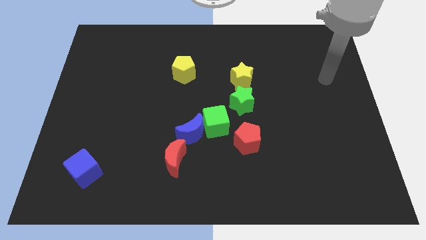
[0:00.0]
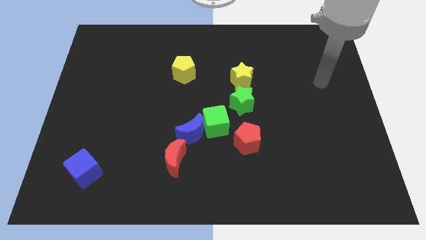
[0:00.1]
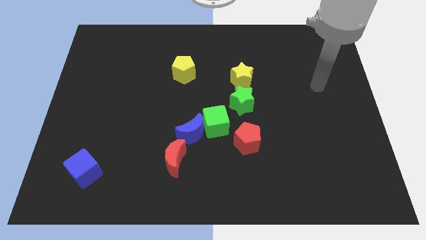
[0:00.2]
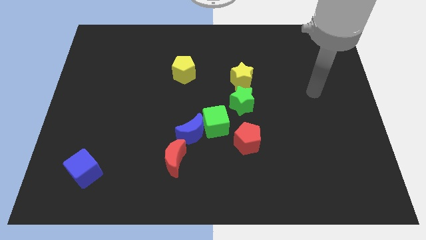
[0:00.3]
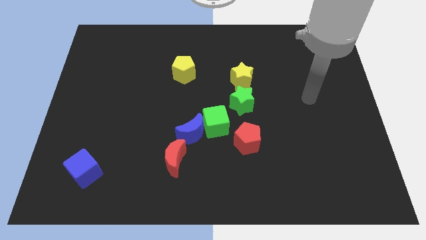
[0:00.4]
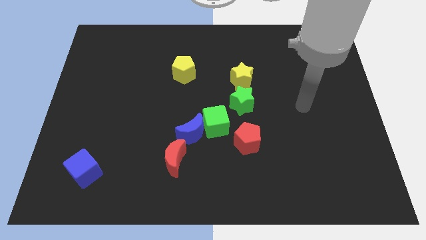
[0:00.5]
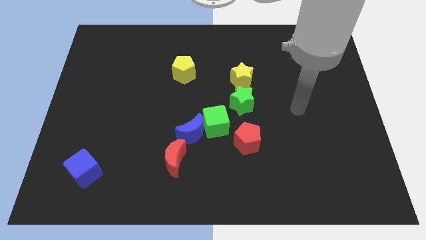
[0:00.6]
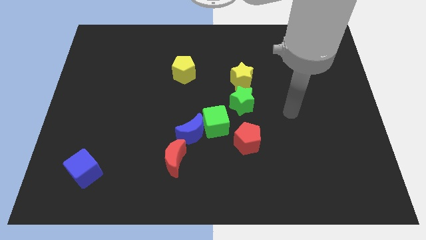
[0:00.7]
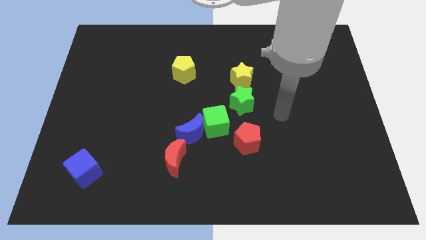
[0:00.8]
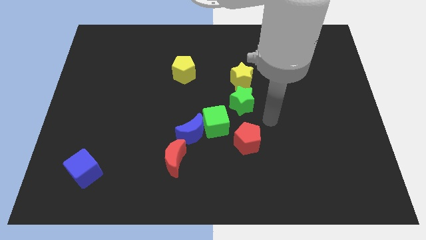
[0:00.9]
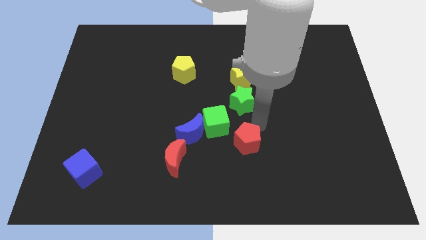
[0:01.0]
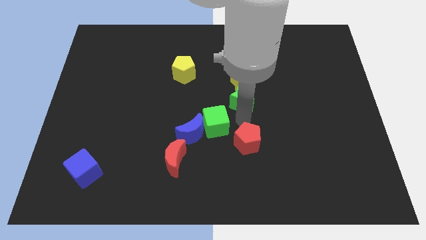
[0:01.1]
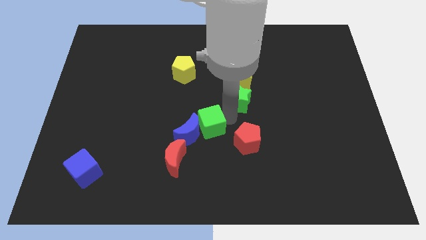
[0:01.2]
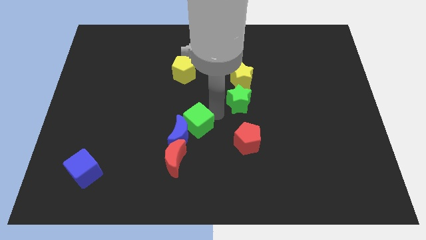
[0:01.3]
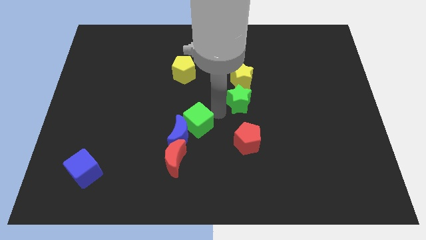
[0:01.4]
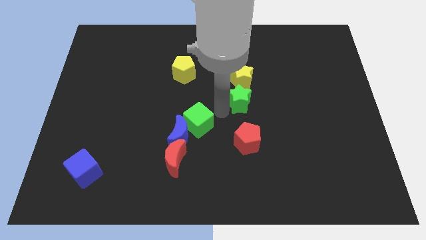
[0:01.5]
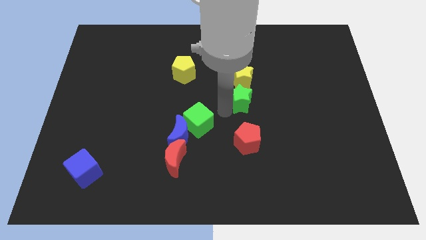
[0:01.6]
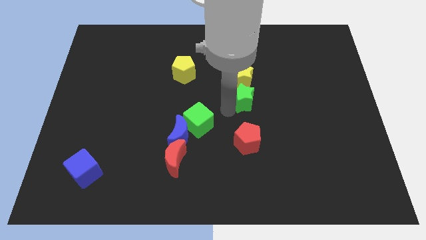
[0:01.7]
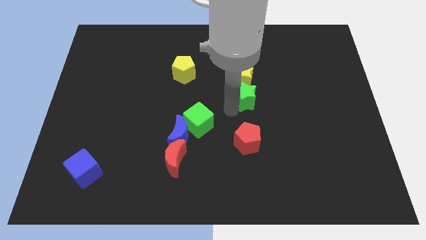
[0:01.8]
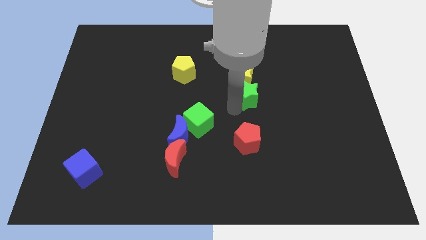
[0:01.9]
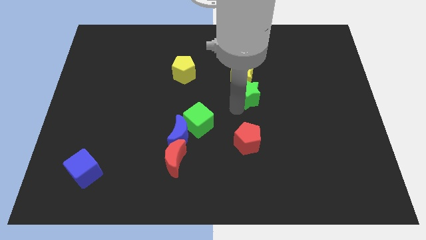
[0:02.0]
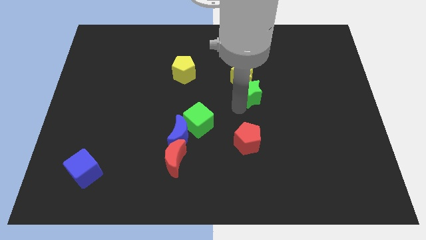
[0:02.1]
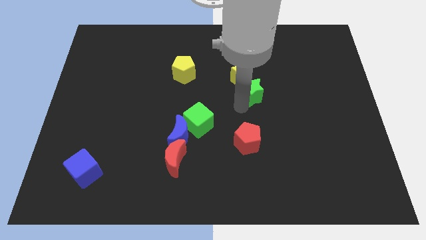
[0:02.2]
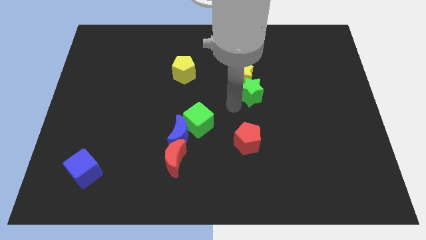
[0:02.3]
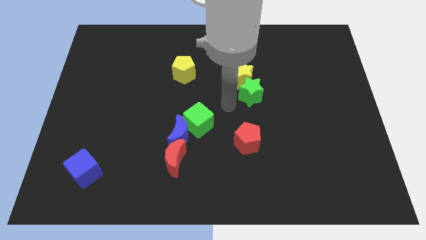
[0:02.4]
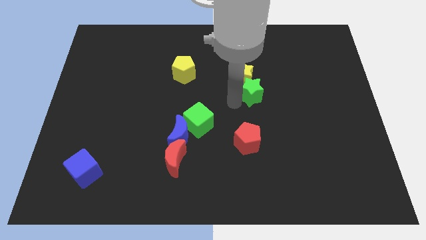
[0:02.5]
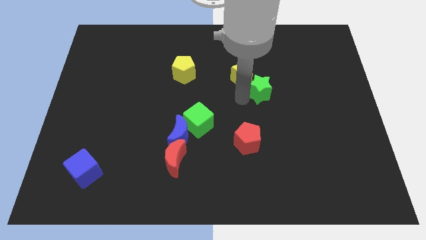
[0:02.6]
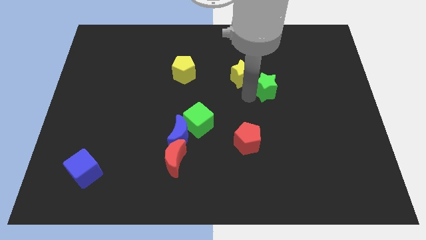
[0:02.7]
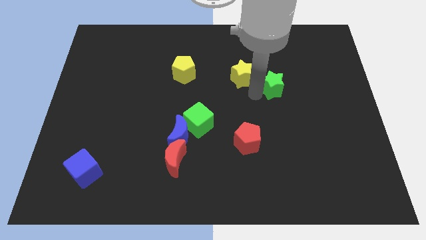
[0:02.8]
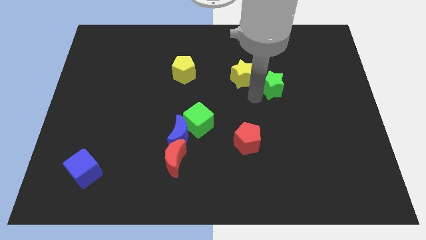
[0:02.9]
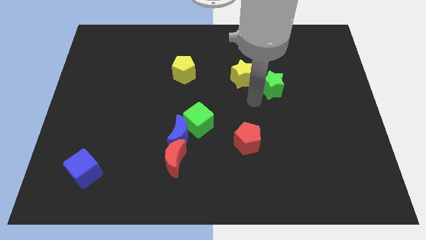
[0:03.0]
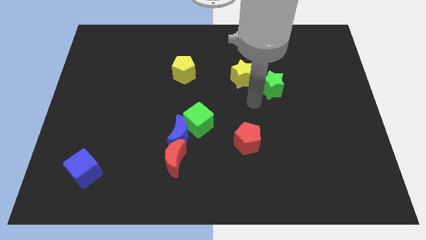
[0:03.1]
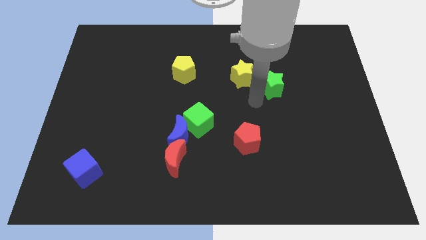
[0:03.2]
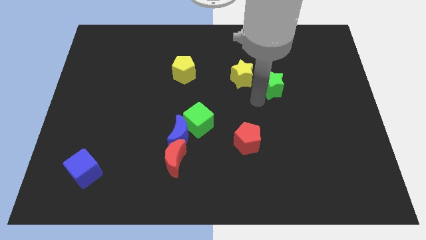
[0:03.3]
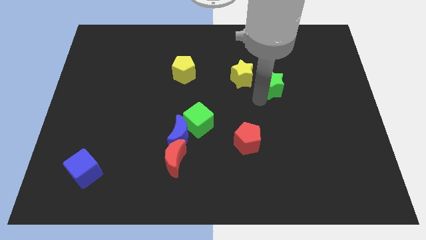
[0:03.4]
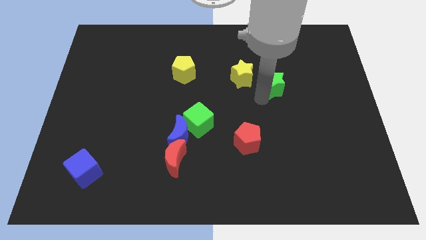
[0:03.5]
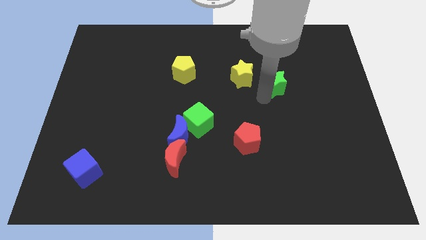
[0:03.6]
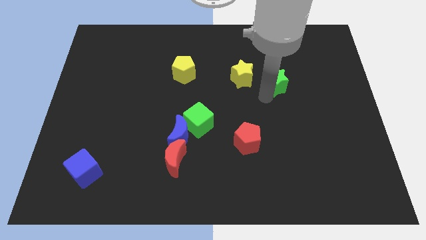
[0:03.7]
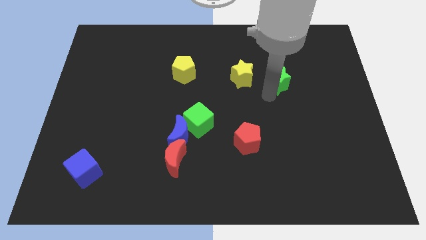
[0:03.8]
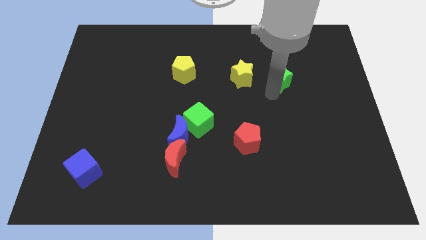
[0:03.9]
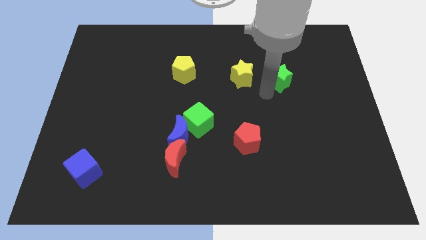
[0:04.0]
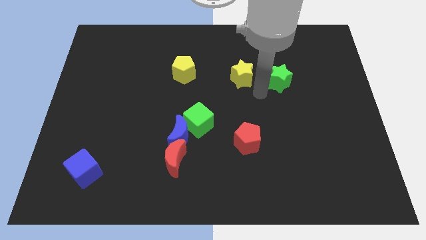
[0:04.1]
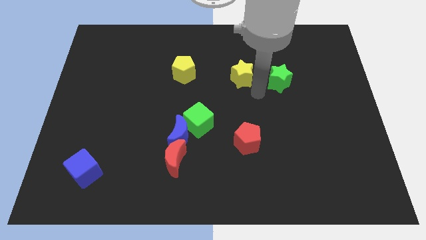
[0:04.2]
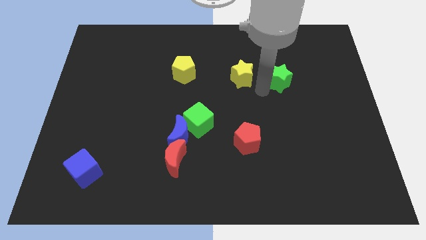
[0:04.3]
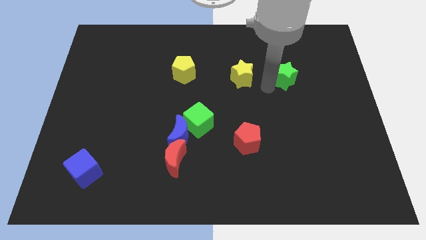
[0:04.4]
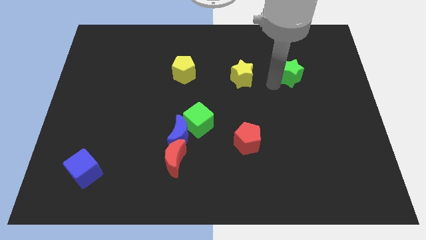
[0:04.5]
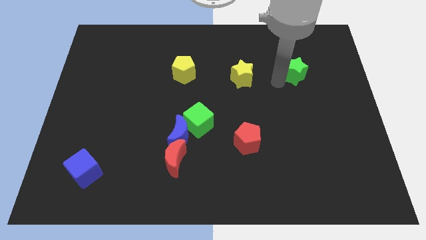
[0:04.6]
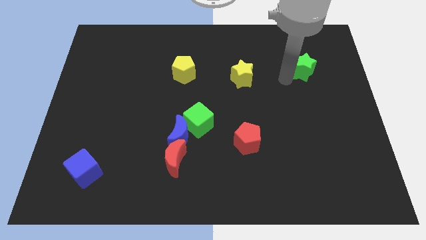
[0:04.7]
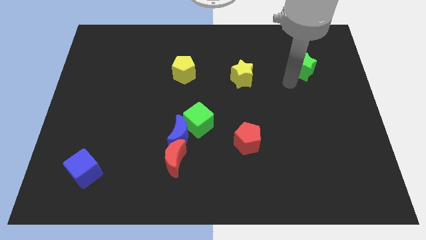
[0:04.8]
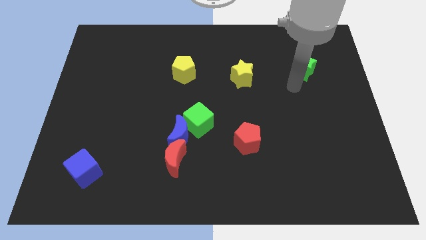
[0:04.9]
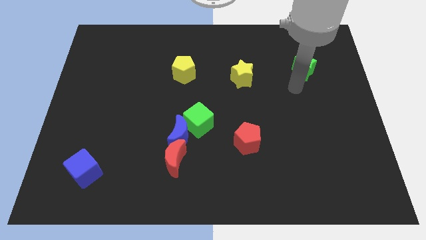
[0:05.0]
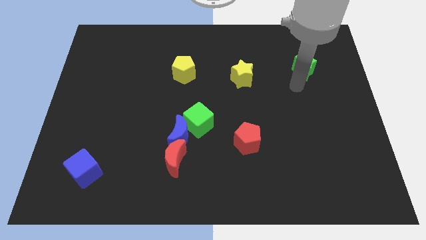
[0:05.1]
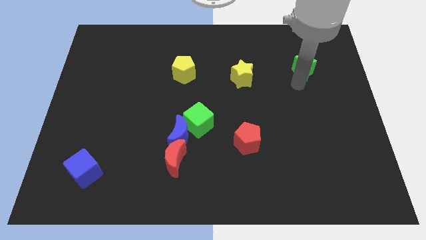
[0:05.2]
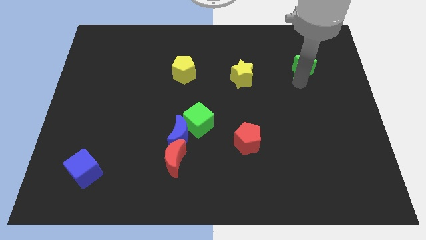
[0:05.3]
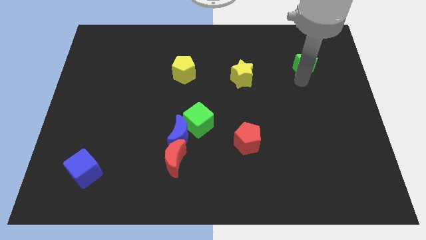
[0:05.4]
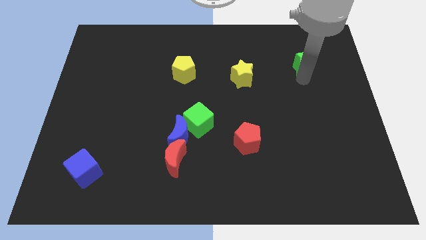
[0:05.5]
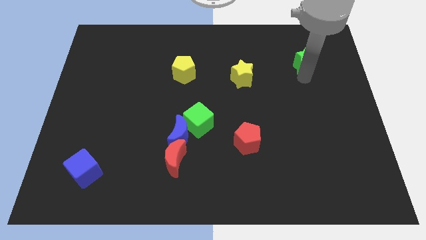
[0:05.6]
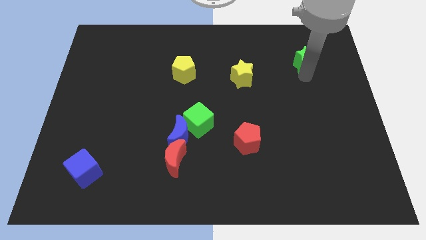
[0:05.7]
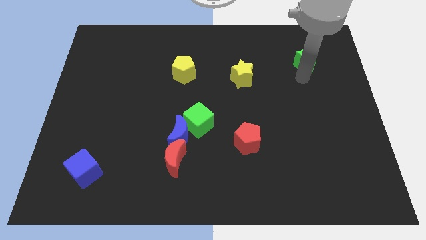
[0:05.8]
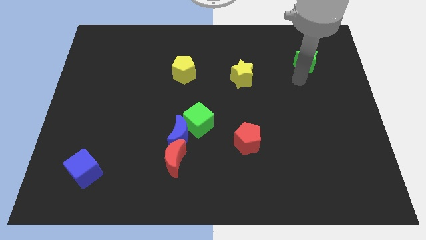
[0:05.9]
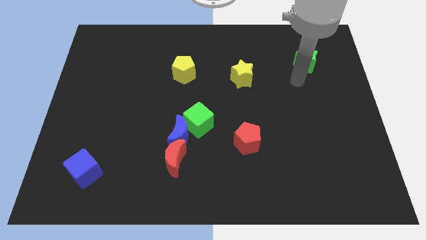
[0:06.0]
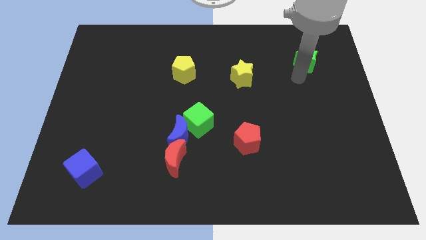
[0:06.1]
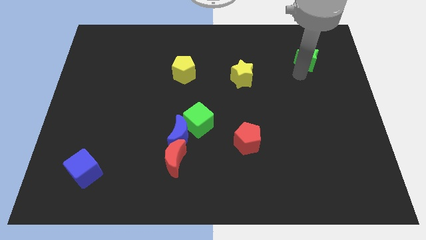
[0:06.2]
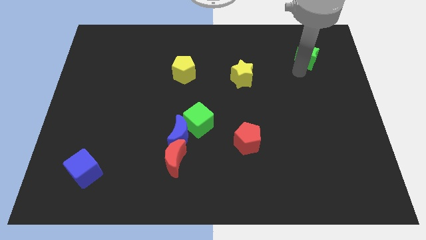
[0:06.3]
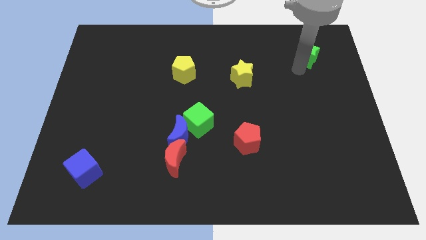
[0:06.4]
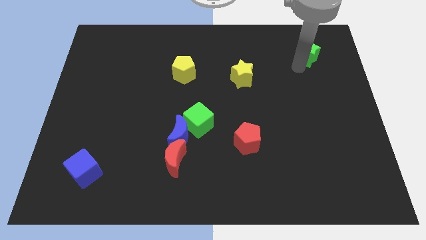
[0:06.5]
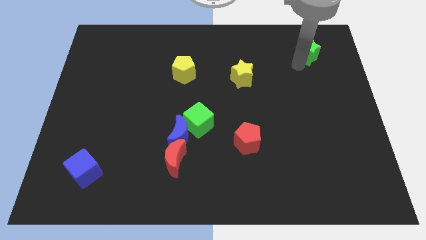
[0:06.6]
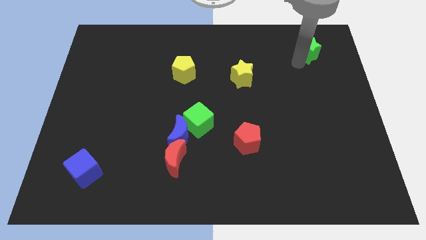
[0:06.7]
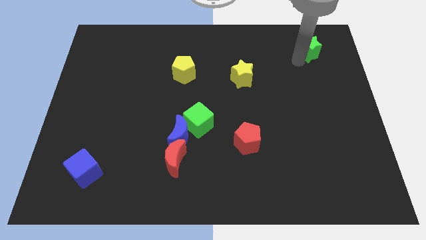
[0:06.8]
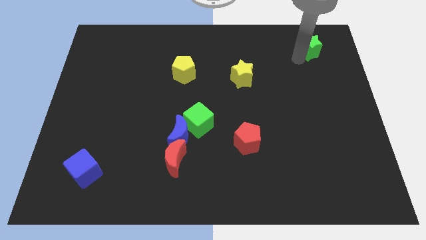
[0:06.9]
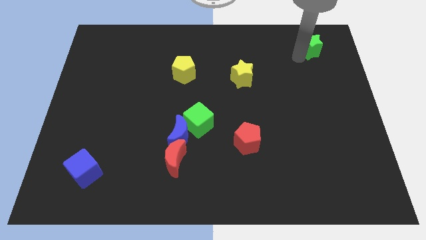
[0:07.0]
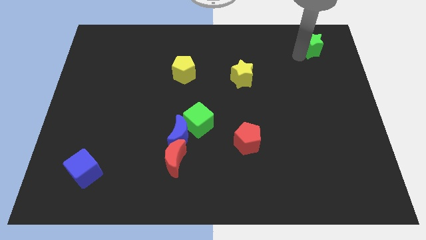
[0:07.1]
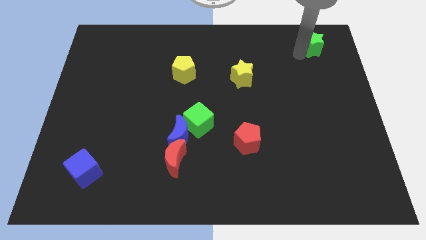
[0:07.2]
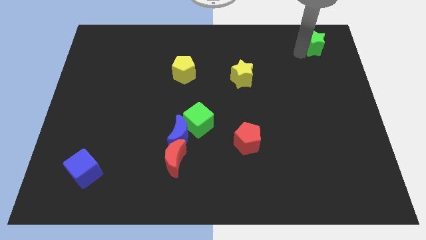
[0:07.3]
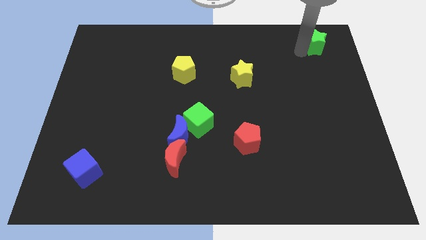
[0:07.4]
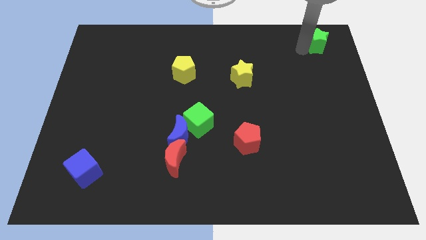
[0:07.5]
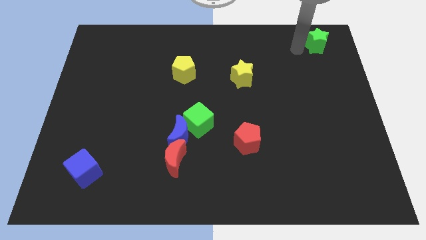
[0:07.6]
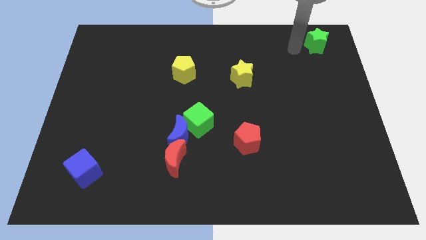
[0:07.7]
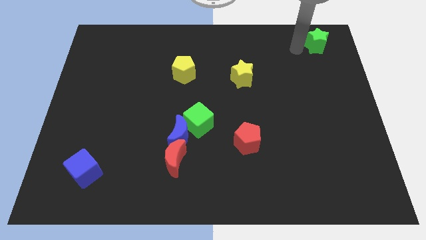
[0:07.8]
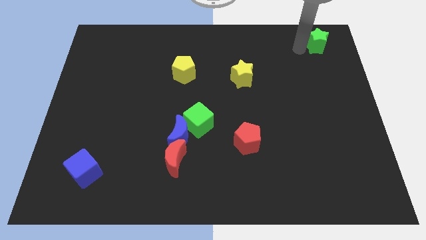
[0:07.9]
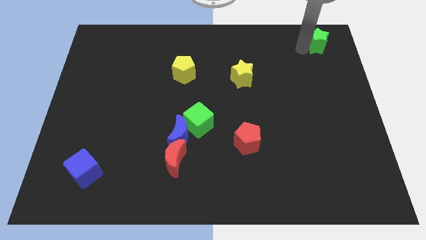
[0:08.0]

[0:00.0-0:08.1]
push the green star to the upper right corner
